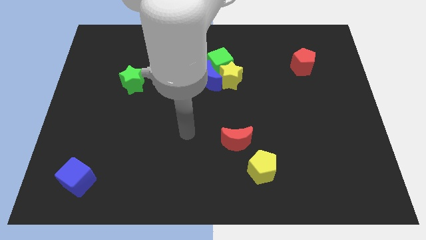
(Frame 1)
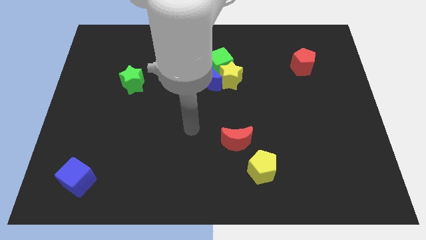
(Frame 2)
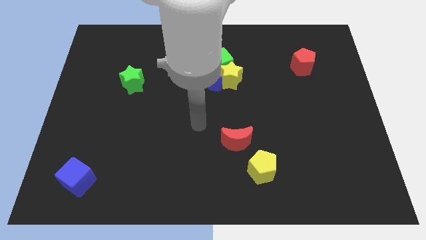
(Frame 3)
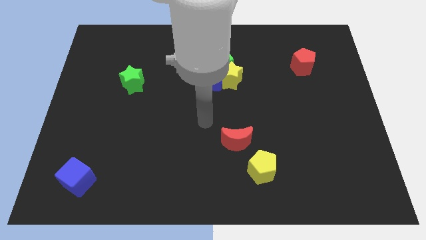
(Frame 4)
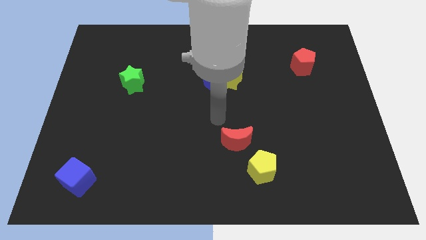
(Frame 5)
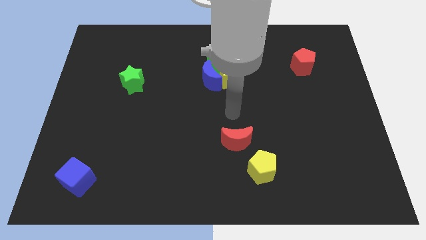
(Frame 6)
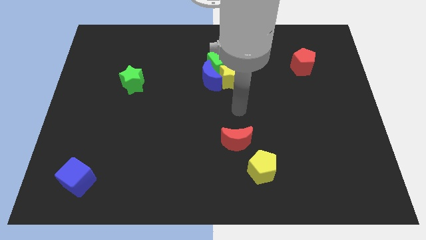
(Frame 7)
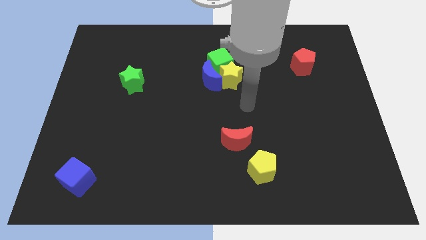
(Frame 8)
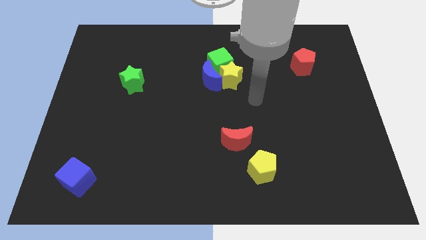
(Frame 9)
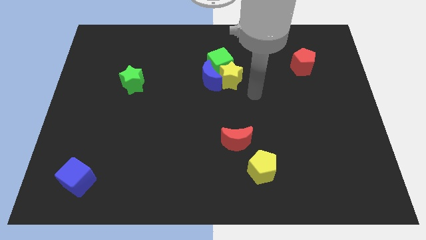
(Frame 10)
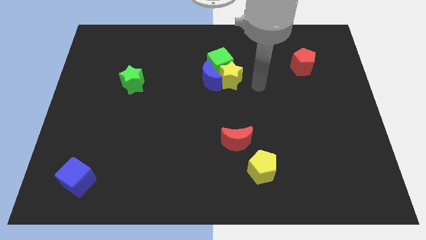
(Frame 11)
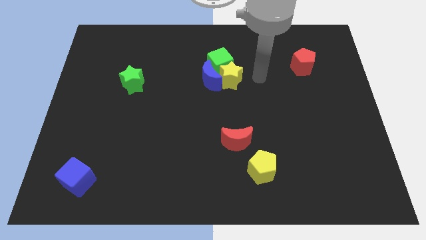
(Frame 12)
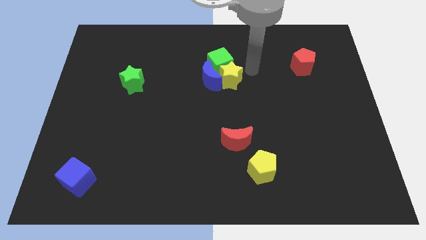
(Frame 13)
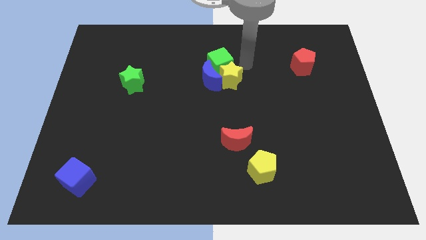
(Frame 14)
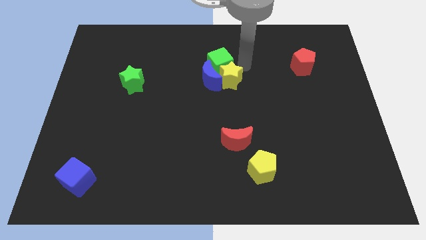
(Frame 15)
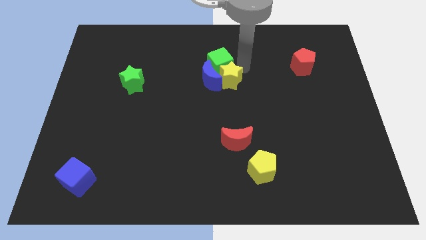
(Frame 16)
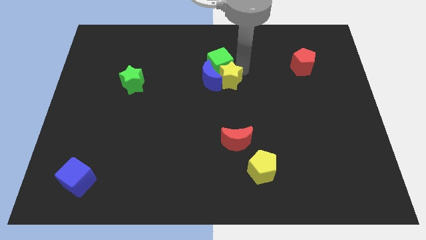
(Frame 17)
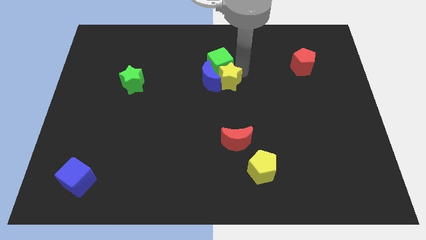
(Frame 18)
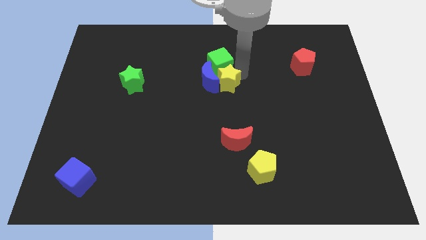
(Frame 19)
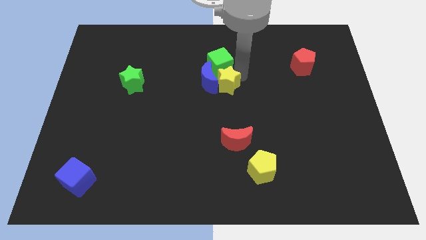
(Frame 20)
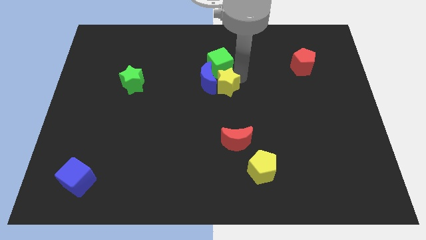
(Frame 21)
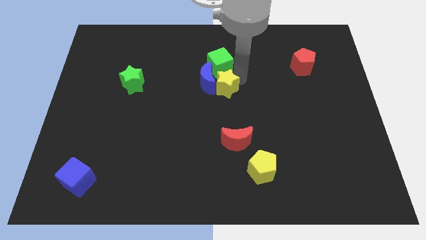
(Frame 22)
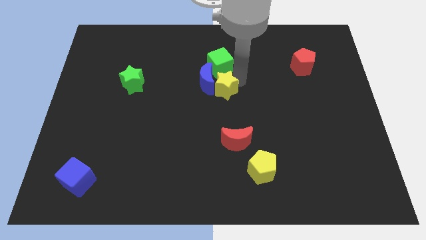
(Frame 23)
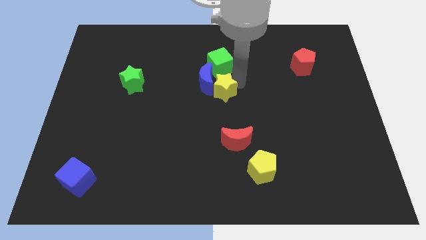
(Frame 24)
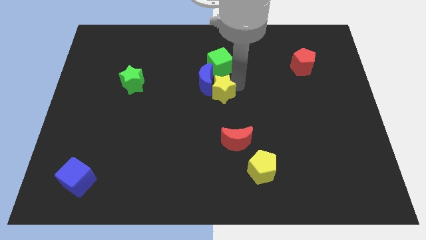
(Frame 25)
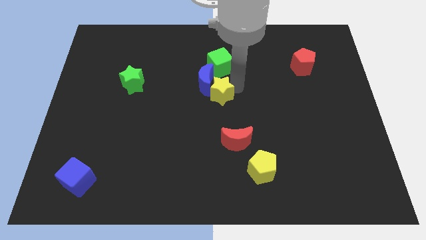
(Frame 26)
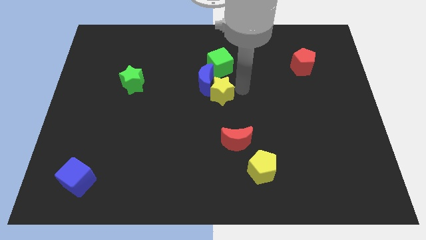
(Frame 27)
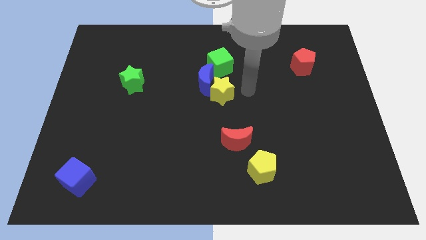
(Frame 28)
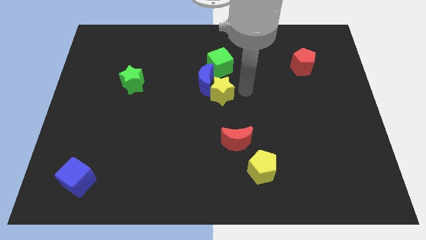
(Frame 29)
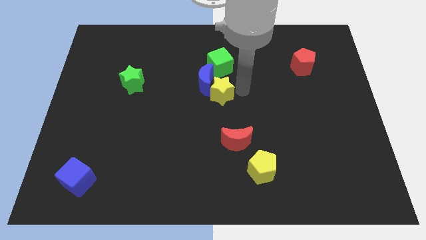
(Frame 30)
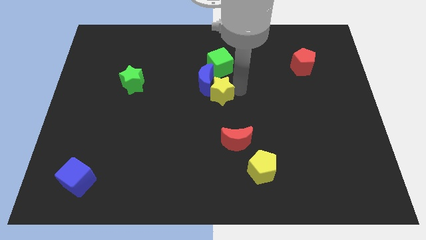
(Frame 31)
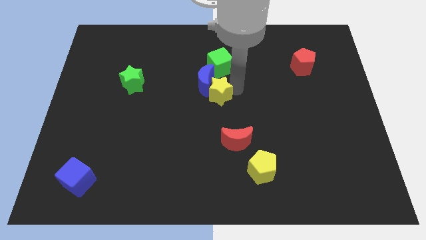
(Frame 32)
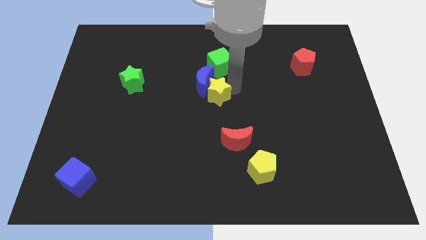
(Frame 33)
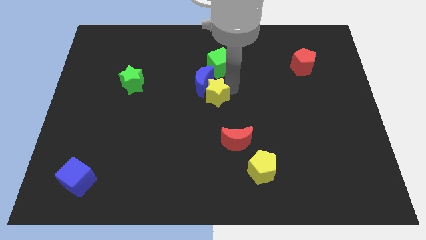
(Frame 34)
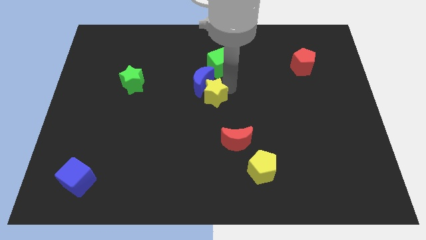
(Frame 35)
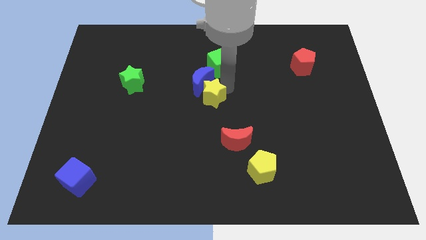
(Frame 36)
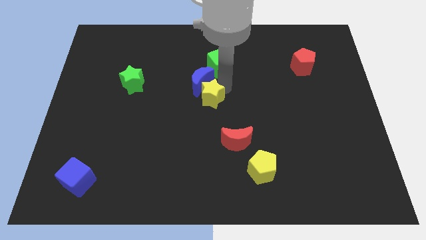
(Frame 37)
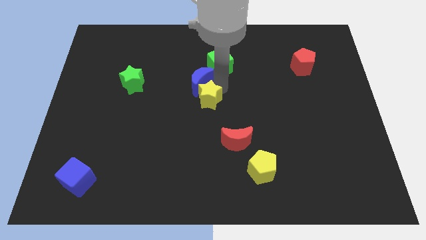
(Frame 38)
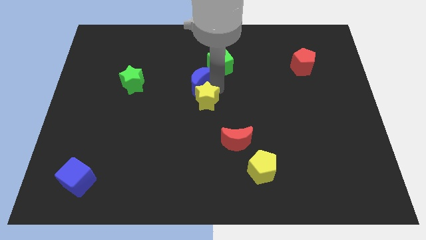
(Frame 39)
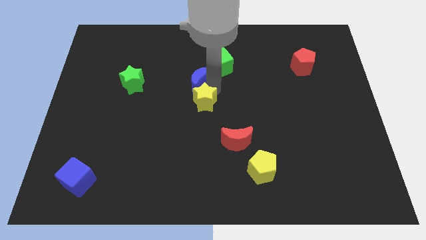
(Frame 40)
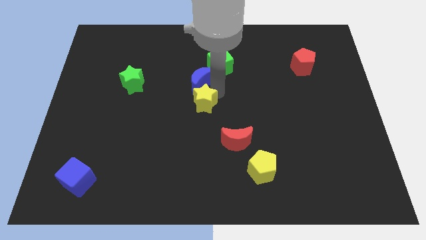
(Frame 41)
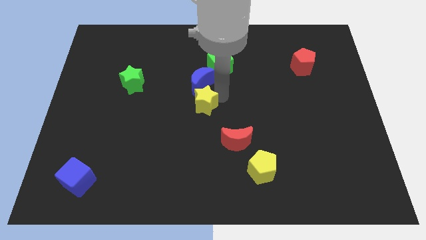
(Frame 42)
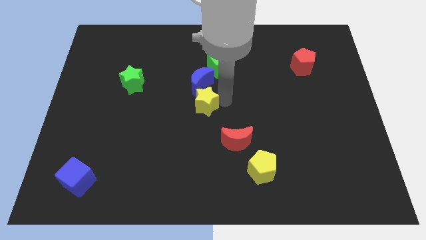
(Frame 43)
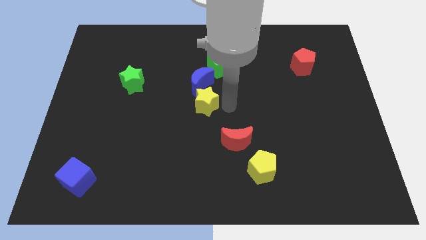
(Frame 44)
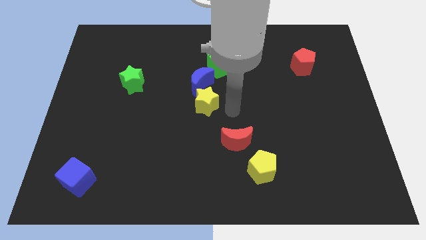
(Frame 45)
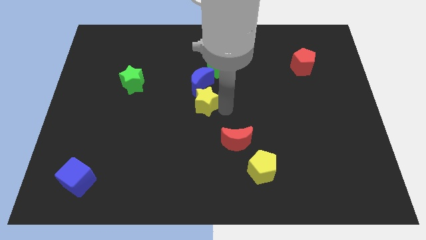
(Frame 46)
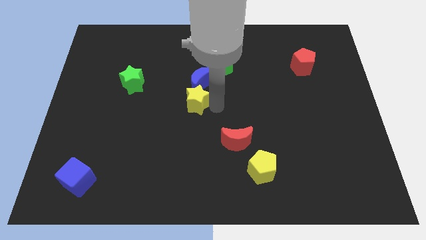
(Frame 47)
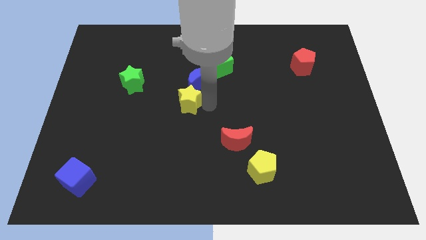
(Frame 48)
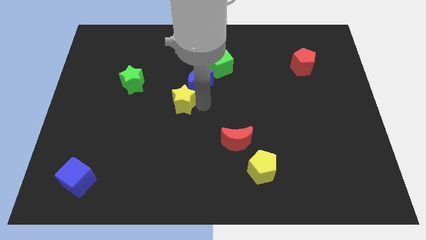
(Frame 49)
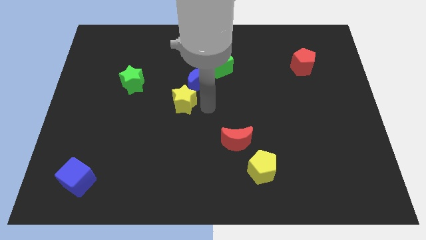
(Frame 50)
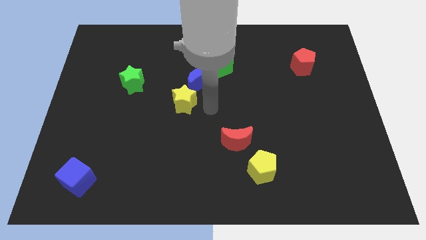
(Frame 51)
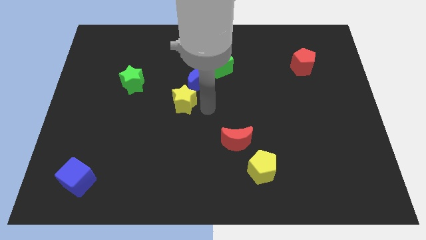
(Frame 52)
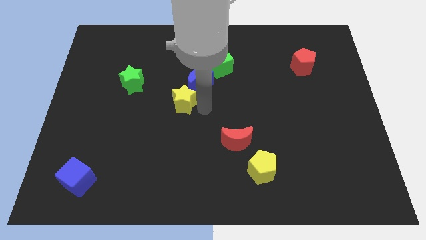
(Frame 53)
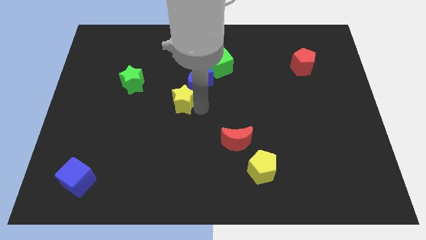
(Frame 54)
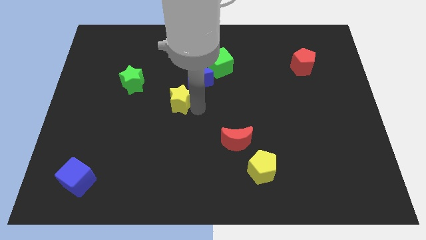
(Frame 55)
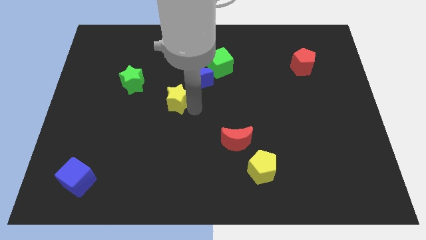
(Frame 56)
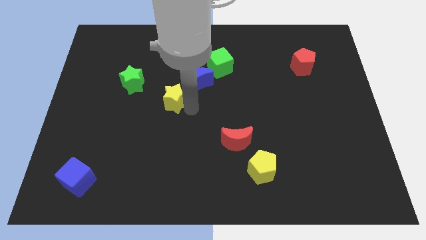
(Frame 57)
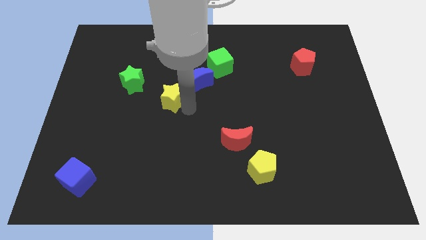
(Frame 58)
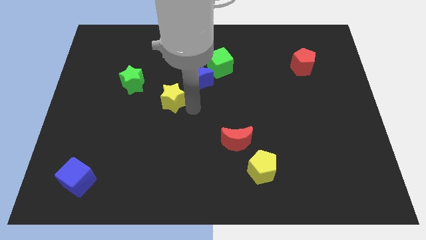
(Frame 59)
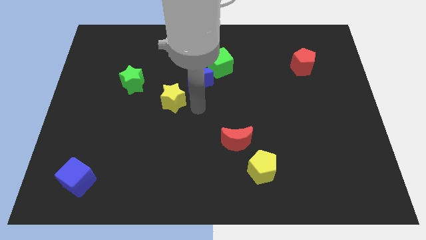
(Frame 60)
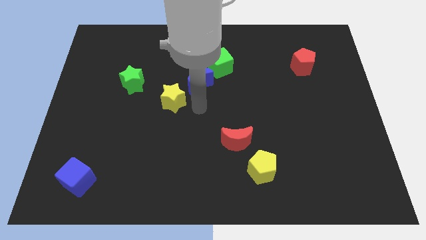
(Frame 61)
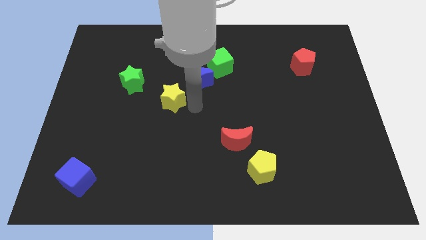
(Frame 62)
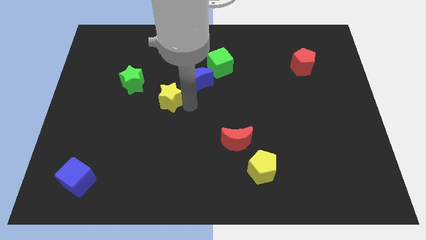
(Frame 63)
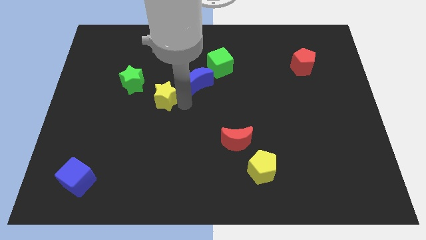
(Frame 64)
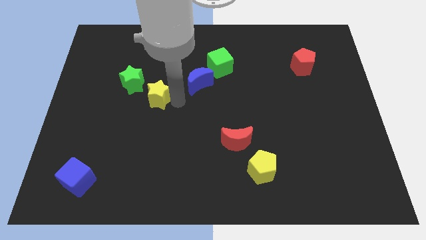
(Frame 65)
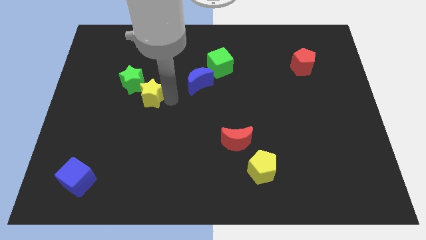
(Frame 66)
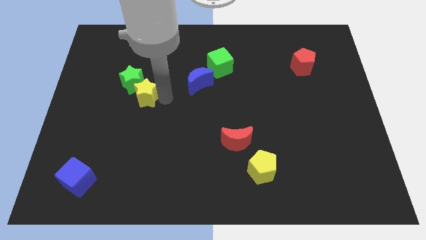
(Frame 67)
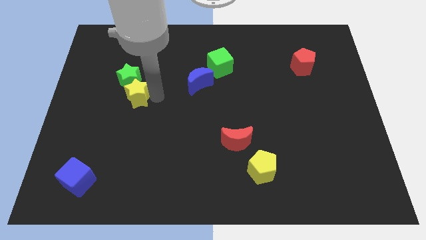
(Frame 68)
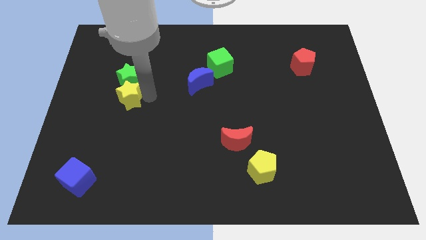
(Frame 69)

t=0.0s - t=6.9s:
move the yellow star to the bottom left side of the green star

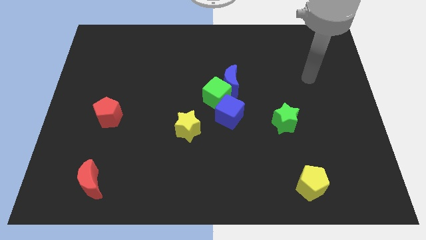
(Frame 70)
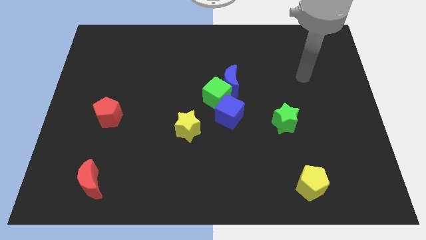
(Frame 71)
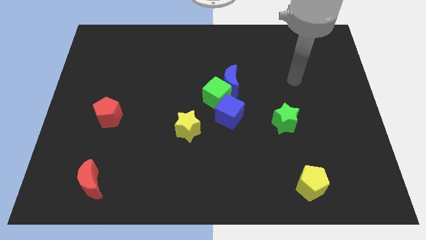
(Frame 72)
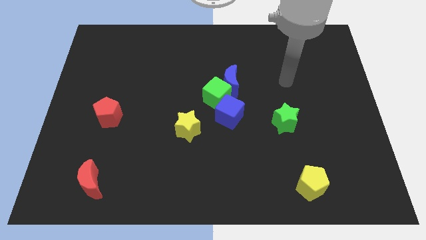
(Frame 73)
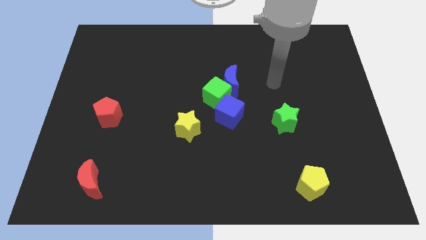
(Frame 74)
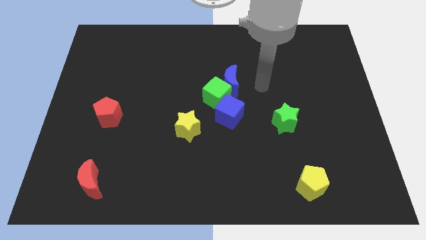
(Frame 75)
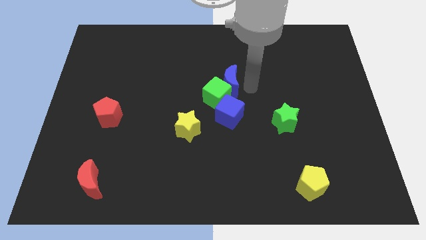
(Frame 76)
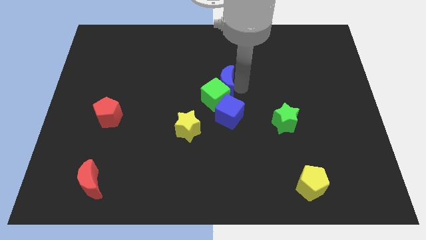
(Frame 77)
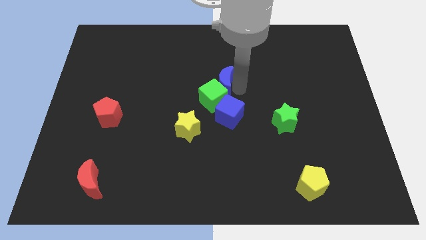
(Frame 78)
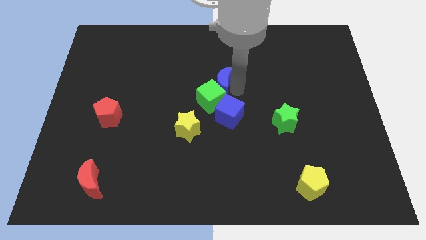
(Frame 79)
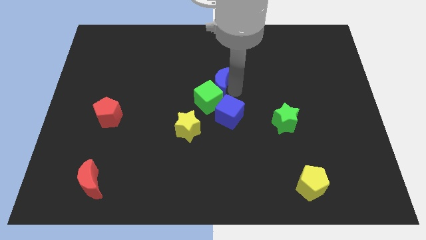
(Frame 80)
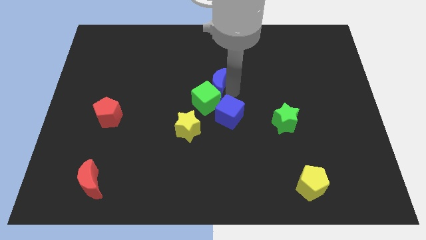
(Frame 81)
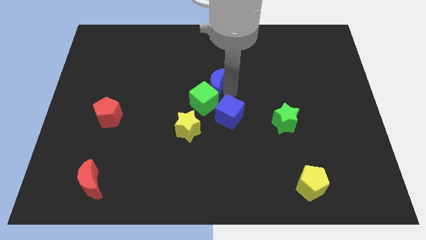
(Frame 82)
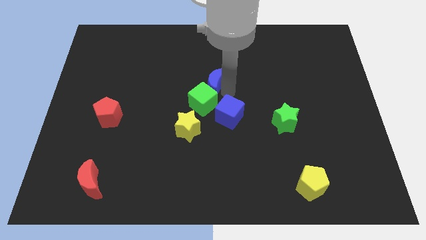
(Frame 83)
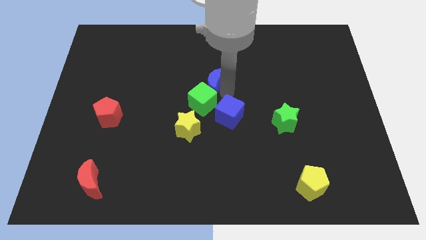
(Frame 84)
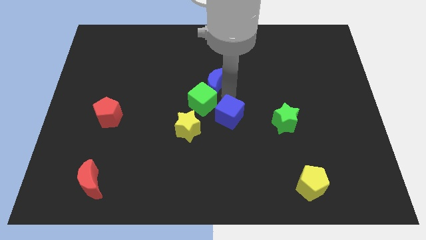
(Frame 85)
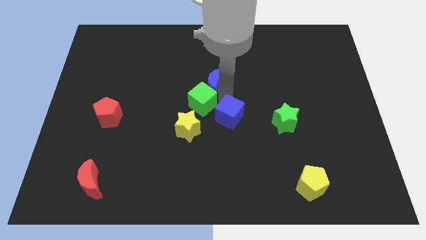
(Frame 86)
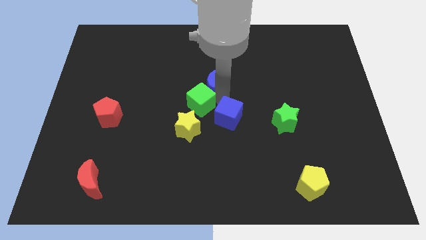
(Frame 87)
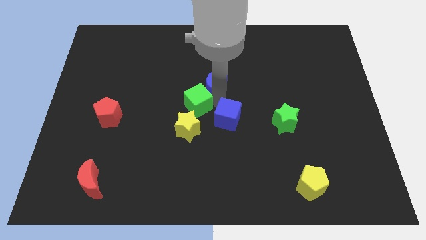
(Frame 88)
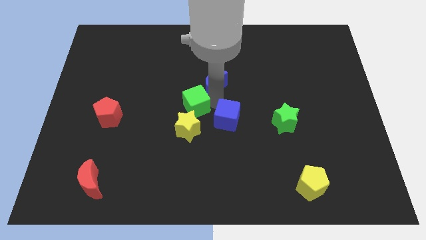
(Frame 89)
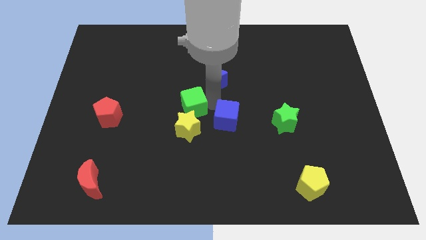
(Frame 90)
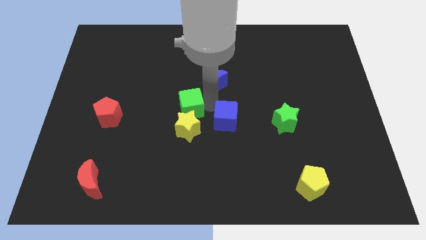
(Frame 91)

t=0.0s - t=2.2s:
move the green cube to the top left of the yellow star
